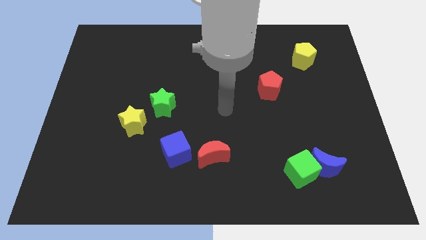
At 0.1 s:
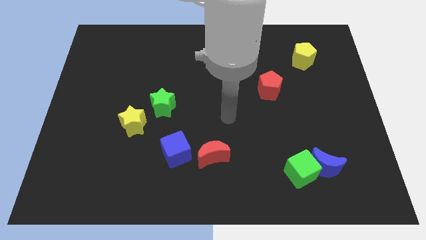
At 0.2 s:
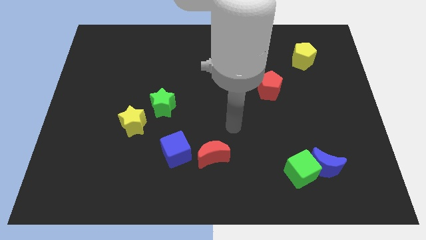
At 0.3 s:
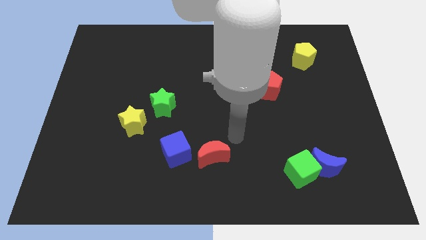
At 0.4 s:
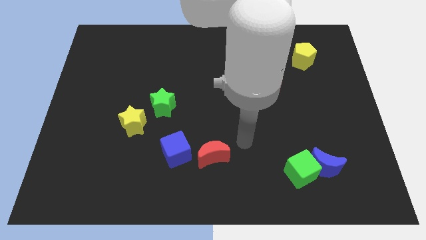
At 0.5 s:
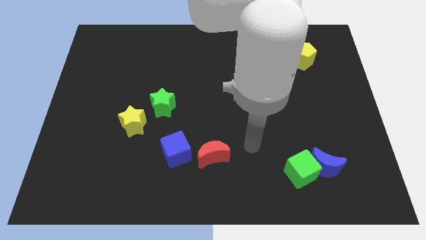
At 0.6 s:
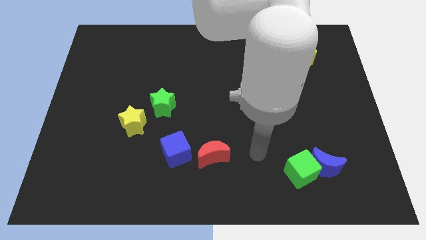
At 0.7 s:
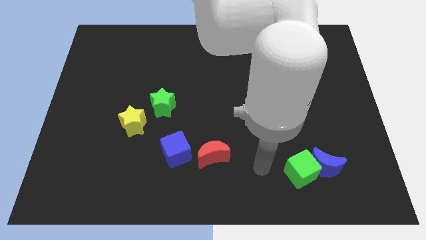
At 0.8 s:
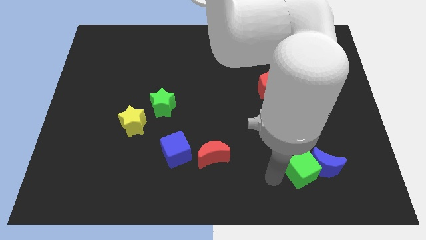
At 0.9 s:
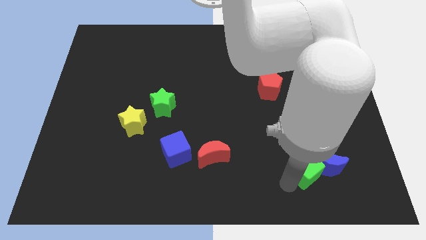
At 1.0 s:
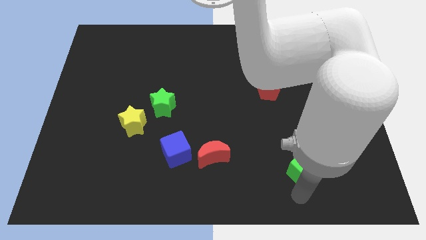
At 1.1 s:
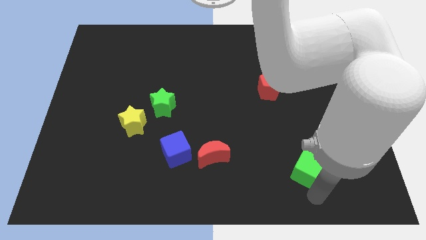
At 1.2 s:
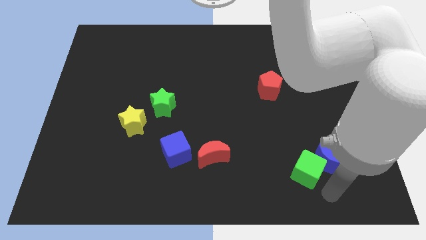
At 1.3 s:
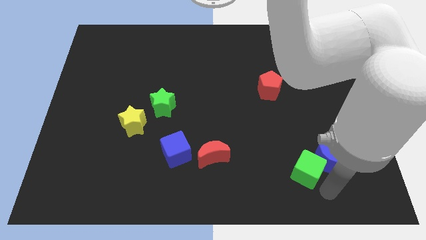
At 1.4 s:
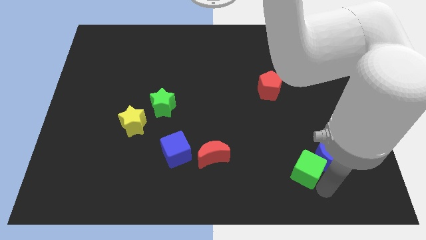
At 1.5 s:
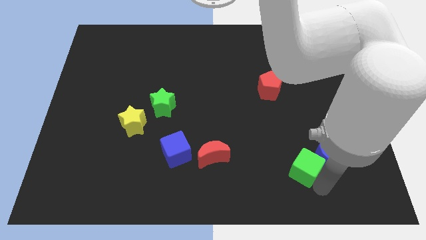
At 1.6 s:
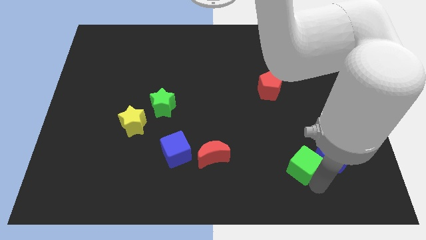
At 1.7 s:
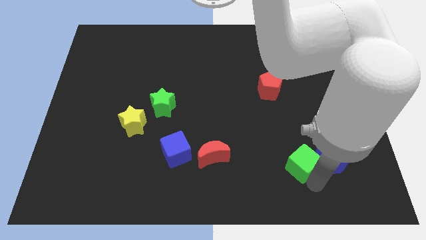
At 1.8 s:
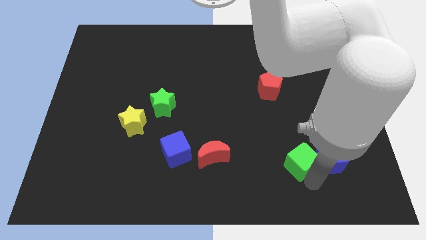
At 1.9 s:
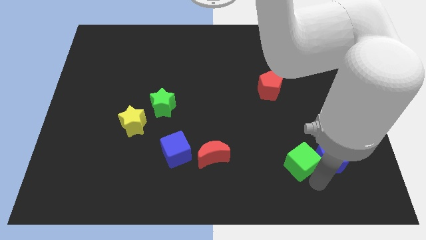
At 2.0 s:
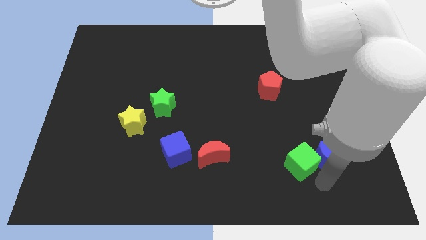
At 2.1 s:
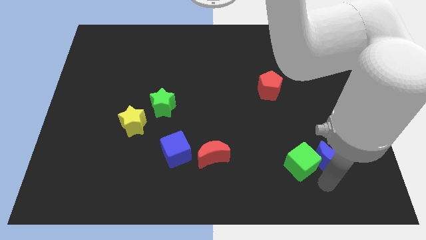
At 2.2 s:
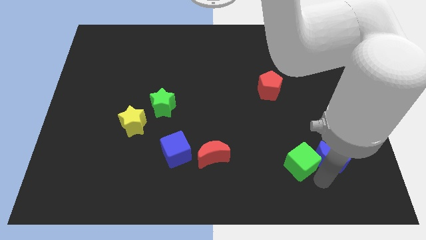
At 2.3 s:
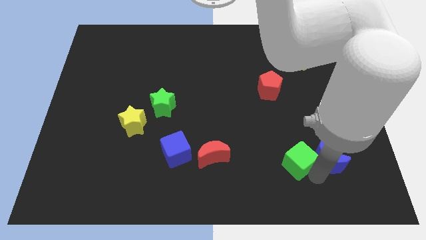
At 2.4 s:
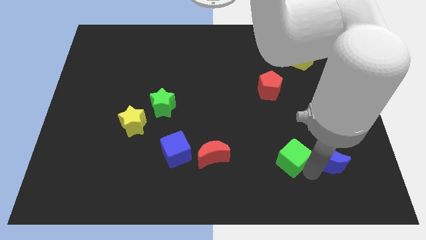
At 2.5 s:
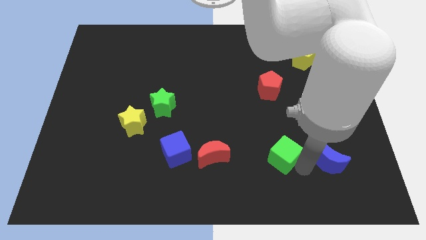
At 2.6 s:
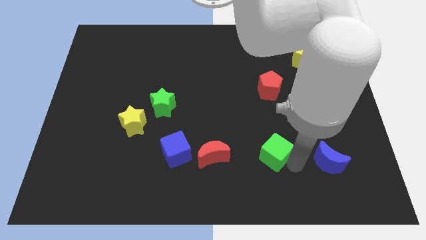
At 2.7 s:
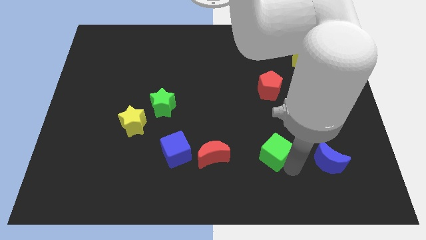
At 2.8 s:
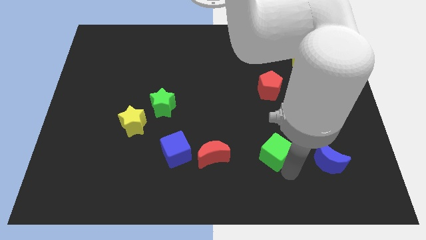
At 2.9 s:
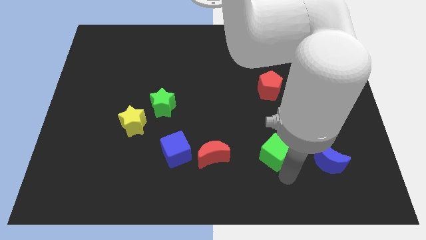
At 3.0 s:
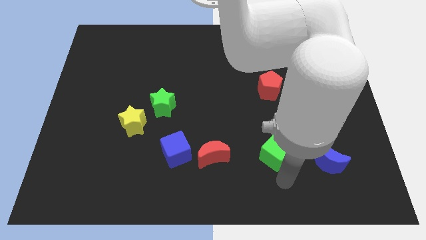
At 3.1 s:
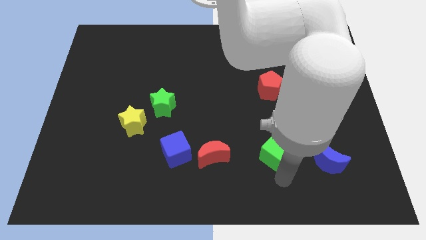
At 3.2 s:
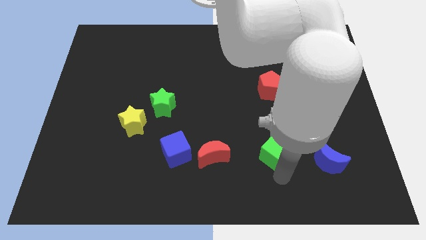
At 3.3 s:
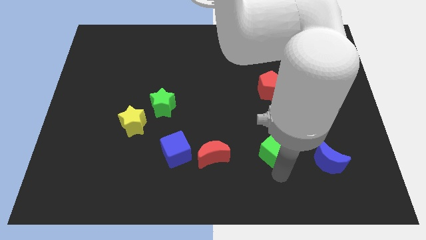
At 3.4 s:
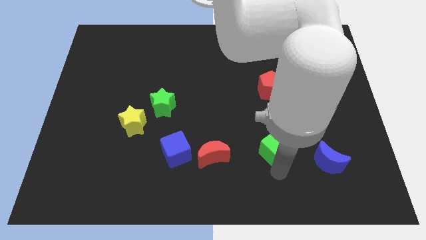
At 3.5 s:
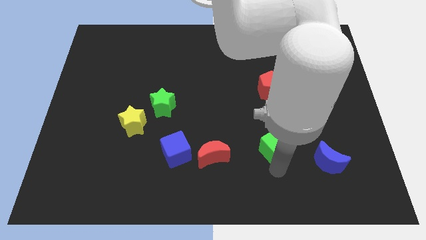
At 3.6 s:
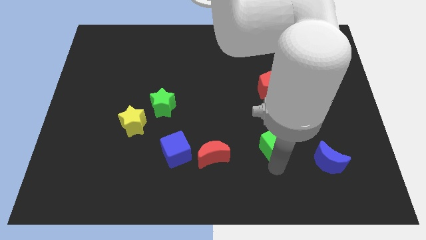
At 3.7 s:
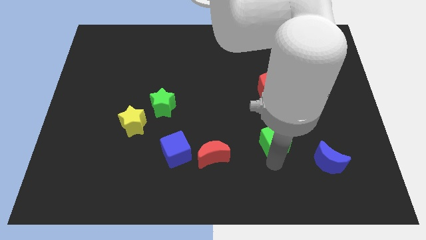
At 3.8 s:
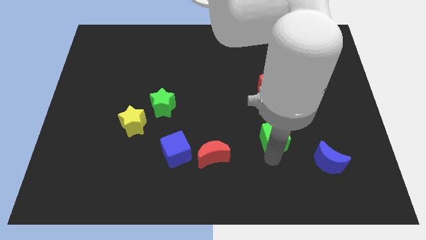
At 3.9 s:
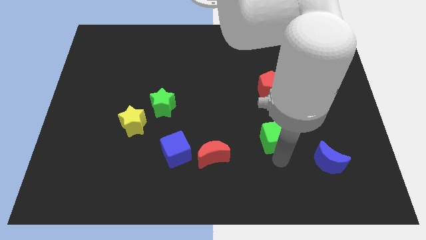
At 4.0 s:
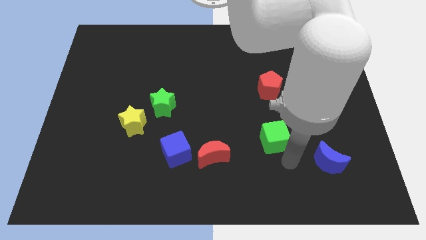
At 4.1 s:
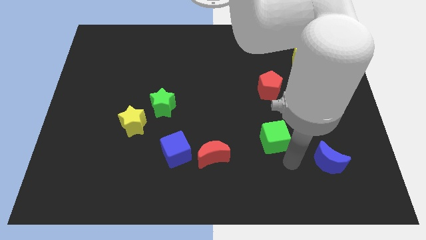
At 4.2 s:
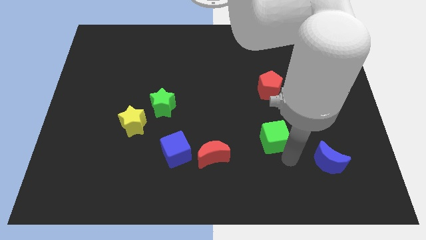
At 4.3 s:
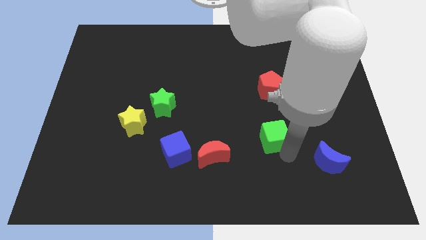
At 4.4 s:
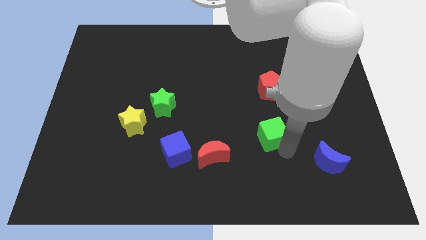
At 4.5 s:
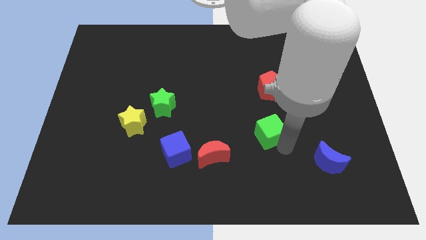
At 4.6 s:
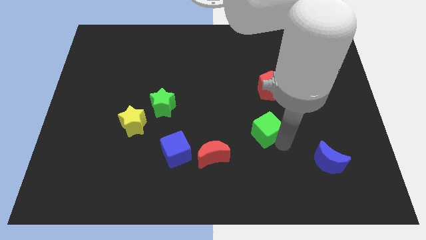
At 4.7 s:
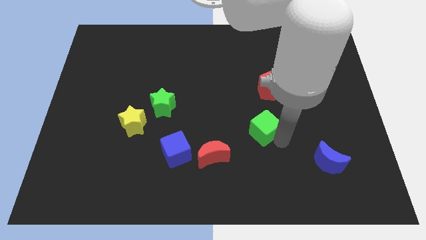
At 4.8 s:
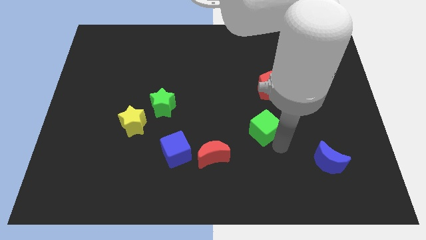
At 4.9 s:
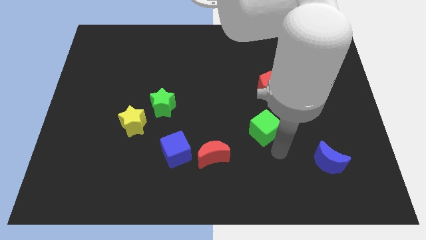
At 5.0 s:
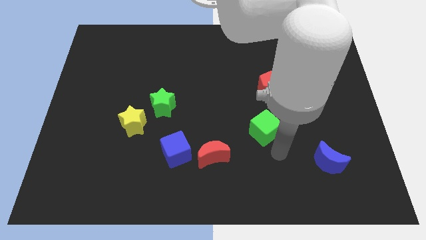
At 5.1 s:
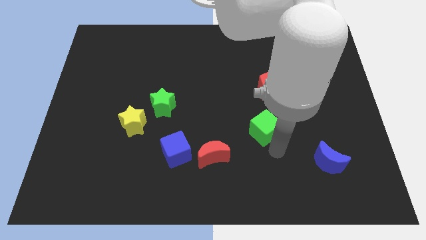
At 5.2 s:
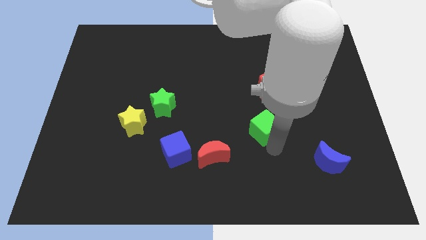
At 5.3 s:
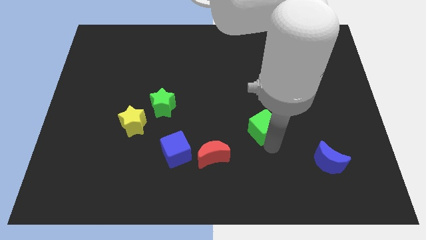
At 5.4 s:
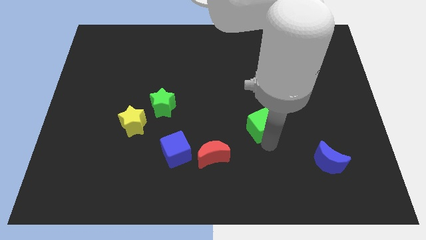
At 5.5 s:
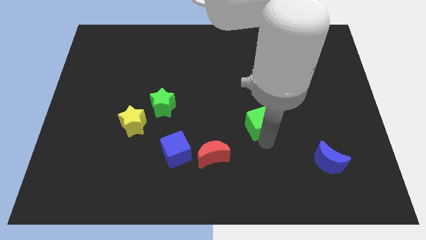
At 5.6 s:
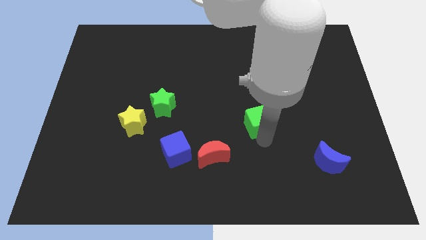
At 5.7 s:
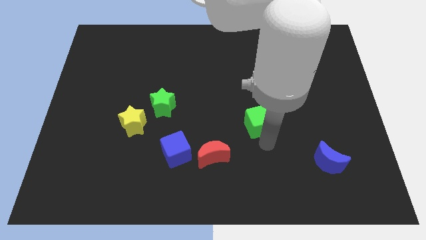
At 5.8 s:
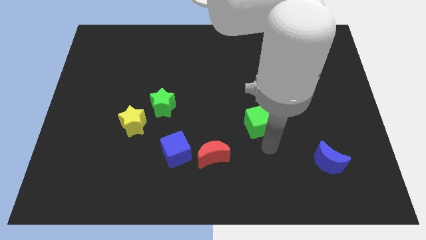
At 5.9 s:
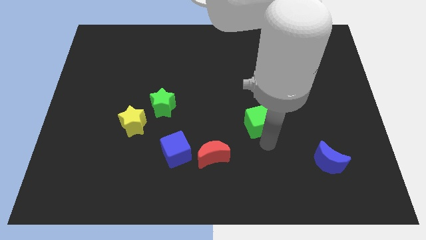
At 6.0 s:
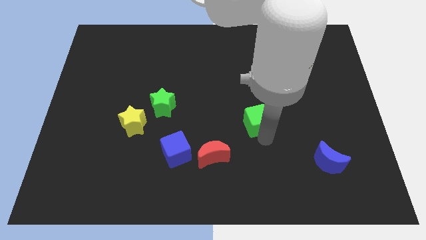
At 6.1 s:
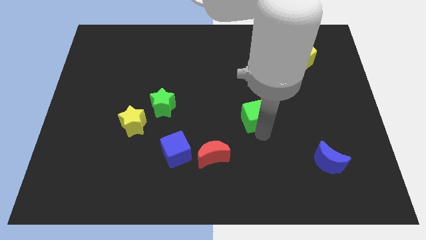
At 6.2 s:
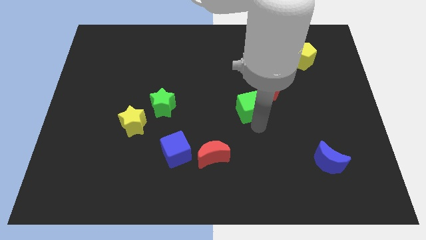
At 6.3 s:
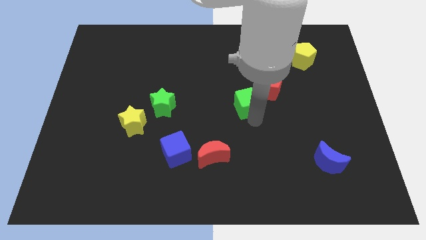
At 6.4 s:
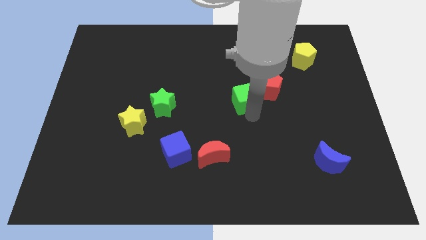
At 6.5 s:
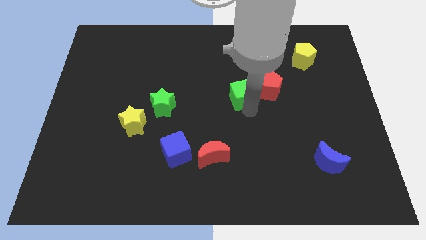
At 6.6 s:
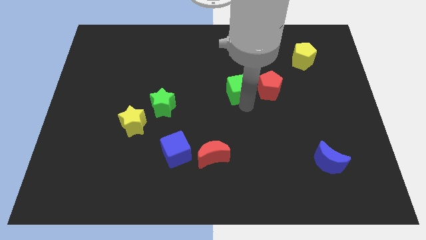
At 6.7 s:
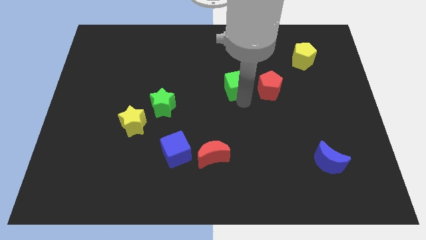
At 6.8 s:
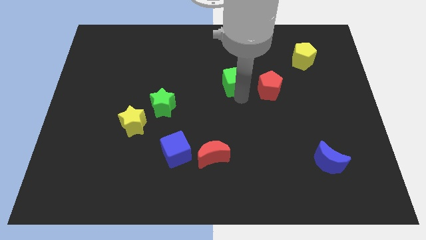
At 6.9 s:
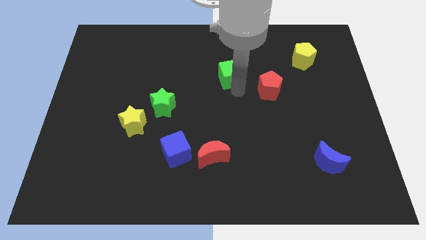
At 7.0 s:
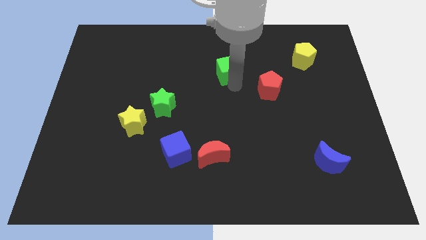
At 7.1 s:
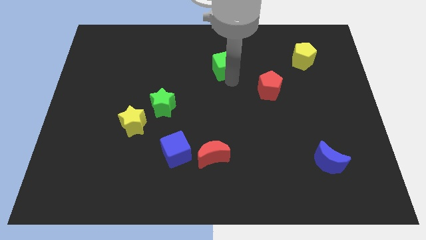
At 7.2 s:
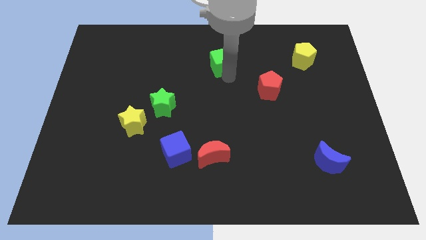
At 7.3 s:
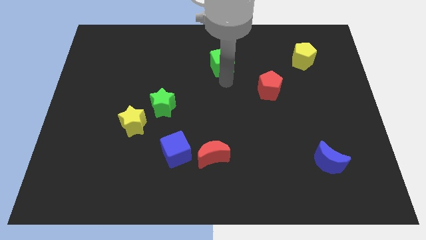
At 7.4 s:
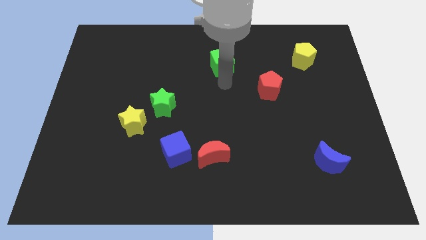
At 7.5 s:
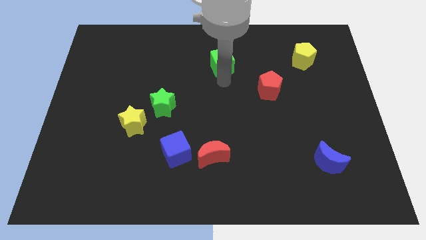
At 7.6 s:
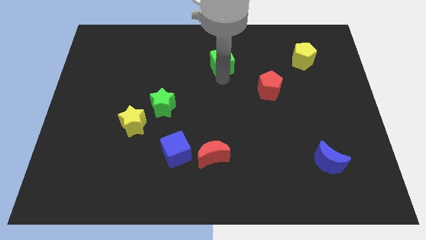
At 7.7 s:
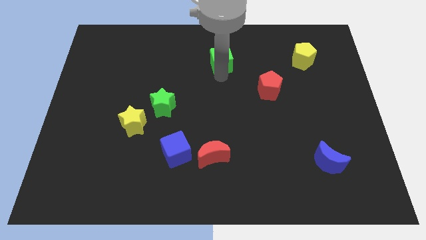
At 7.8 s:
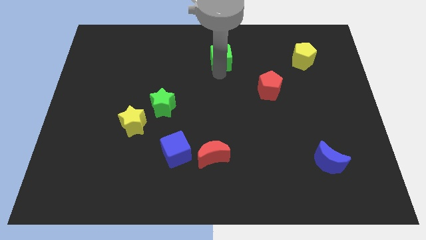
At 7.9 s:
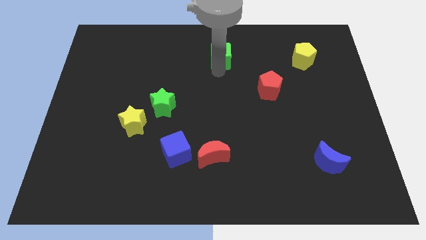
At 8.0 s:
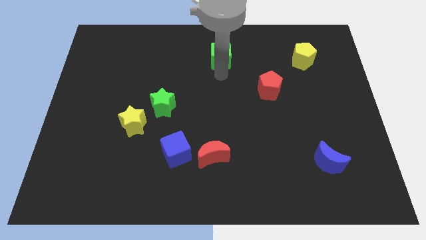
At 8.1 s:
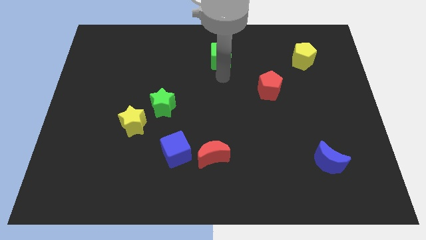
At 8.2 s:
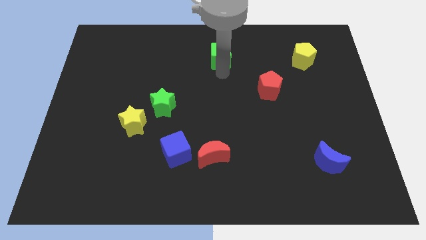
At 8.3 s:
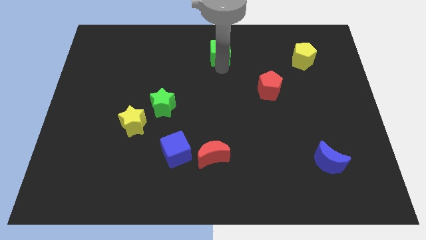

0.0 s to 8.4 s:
put the green cube to the top side
